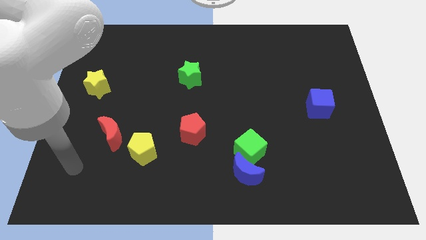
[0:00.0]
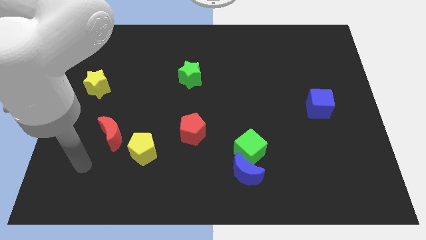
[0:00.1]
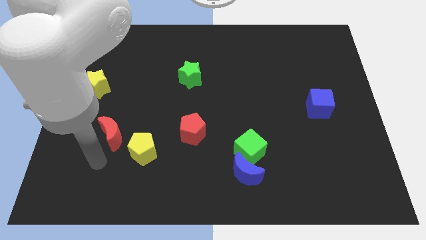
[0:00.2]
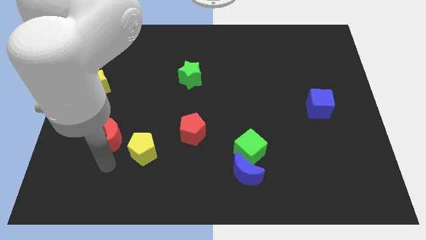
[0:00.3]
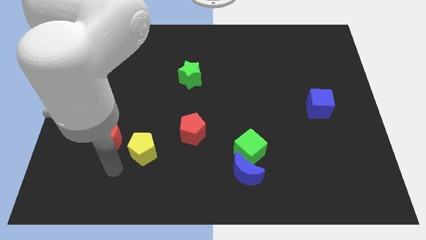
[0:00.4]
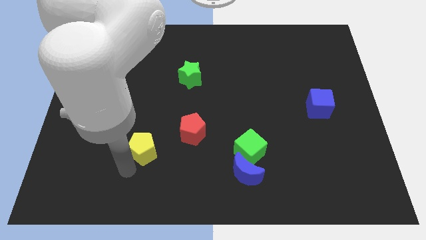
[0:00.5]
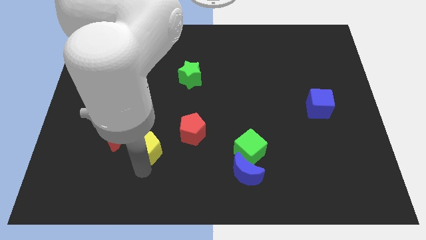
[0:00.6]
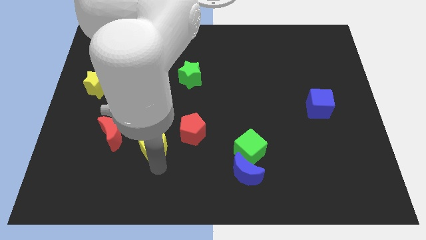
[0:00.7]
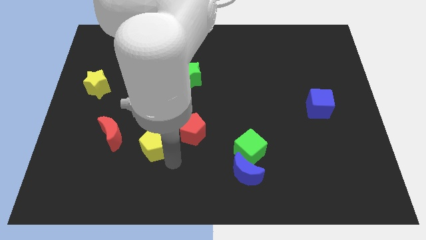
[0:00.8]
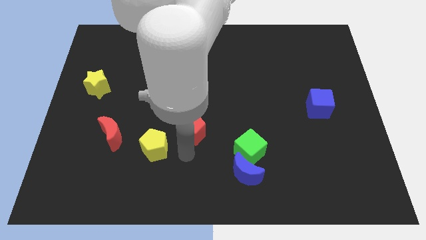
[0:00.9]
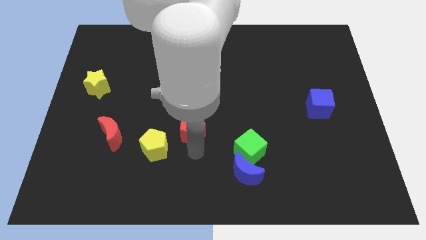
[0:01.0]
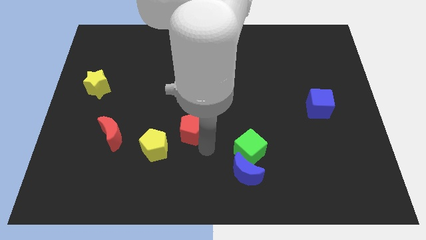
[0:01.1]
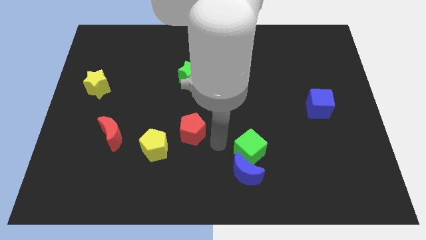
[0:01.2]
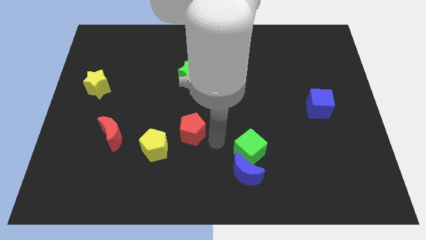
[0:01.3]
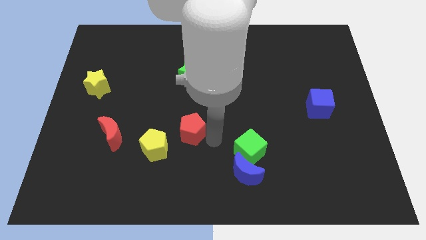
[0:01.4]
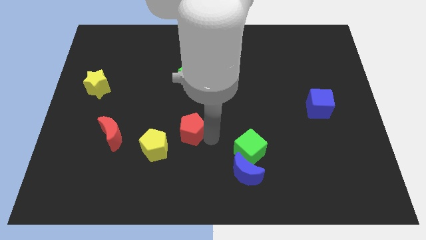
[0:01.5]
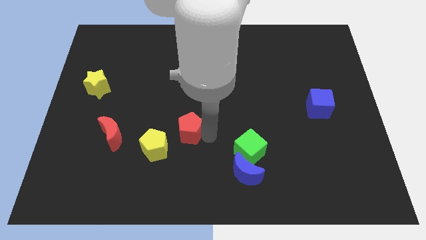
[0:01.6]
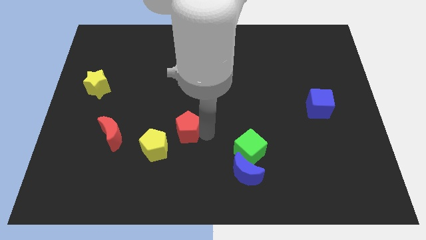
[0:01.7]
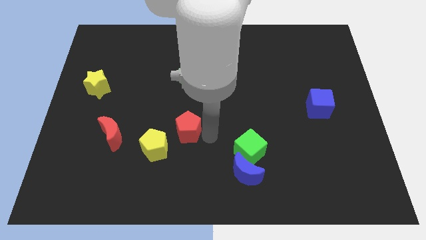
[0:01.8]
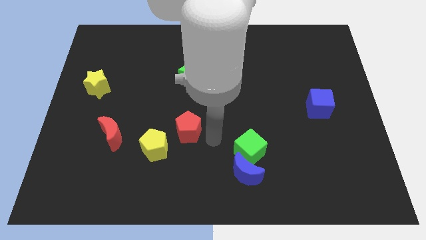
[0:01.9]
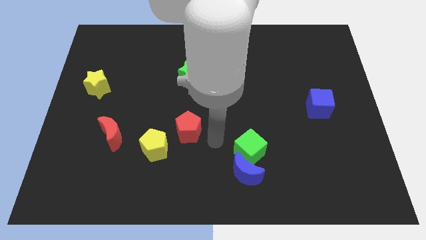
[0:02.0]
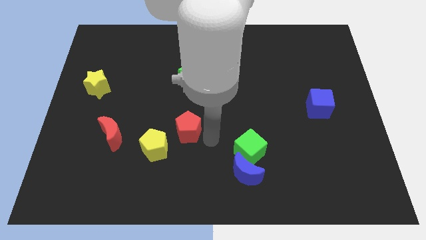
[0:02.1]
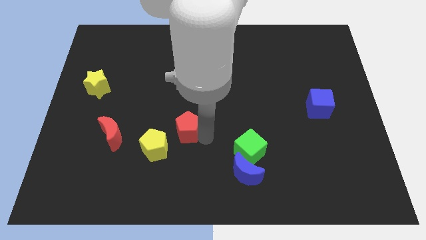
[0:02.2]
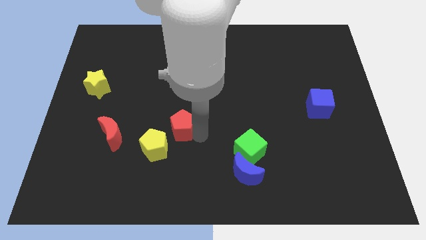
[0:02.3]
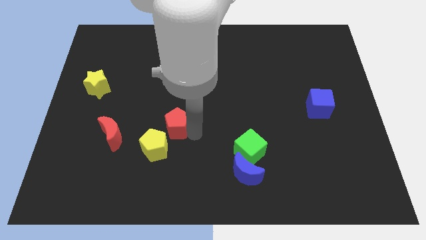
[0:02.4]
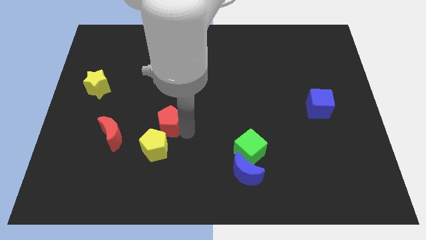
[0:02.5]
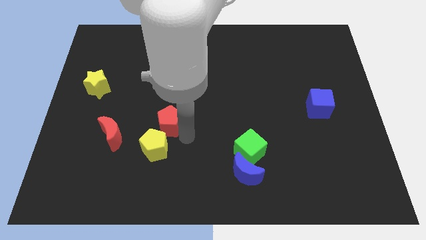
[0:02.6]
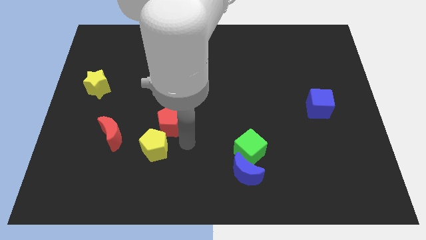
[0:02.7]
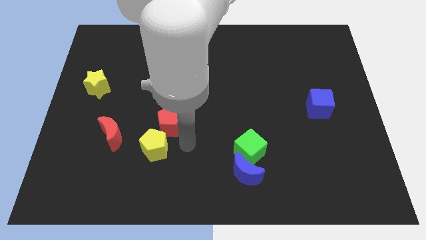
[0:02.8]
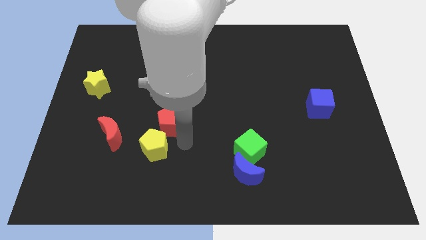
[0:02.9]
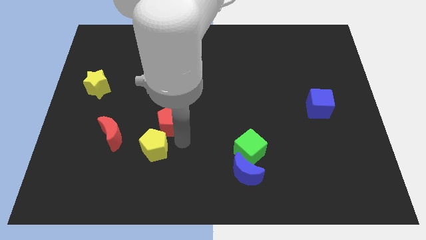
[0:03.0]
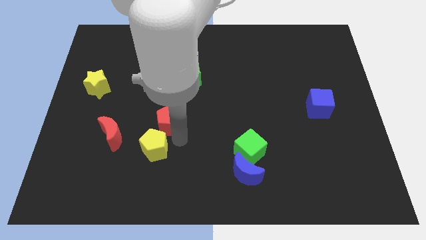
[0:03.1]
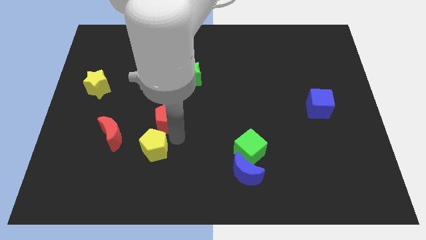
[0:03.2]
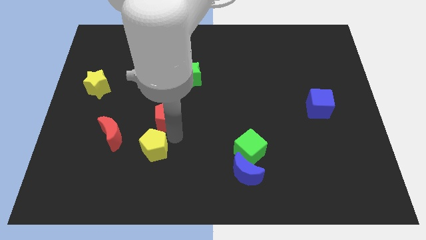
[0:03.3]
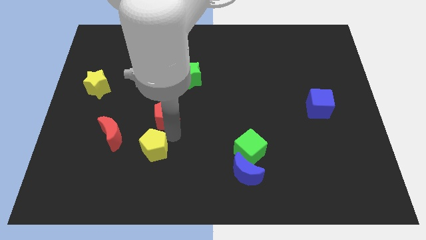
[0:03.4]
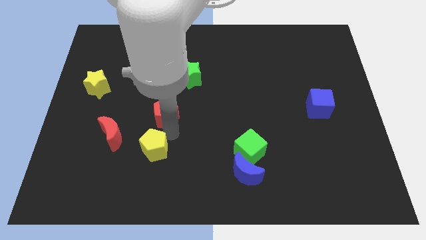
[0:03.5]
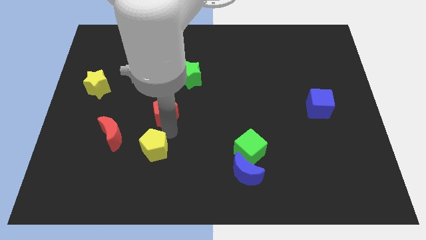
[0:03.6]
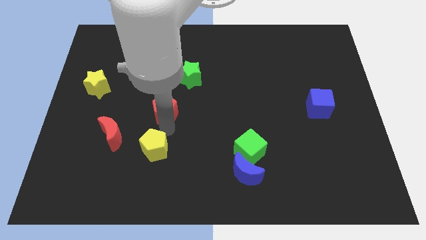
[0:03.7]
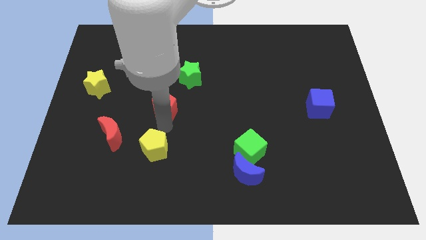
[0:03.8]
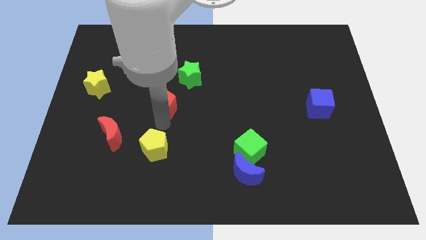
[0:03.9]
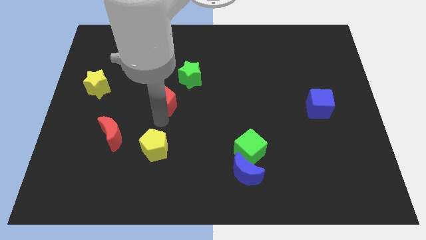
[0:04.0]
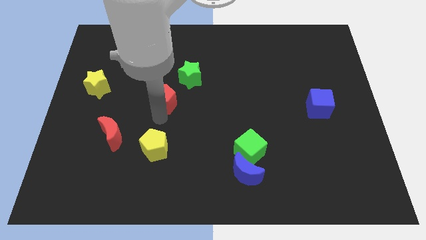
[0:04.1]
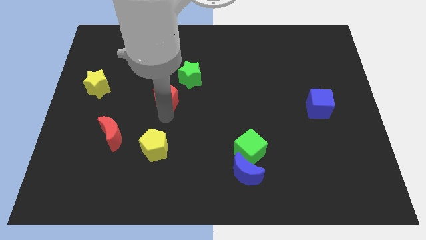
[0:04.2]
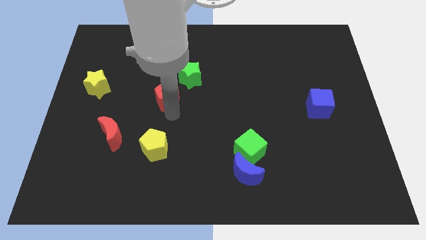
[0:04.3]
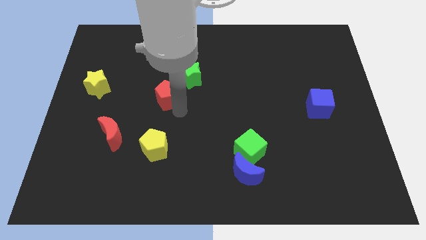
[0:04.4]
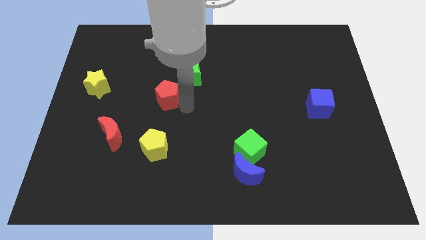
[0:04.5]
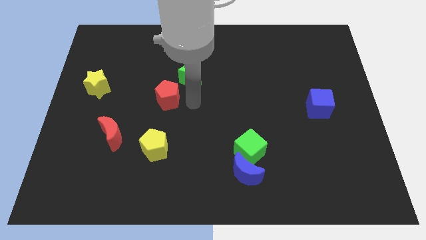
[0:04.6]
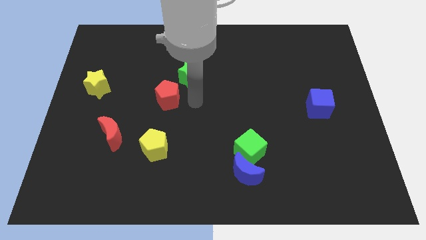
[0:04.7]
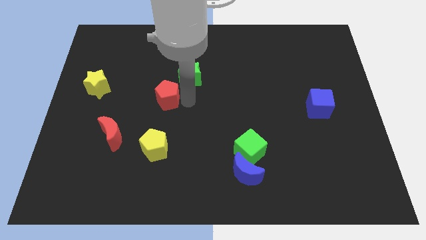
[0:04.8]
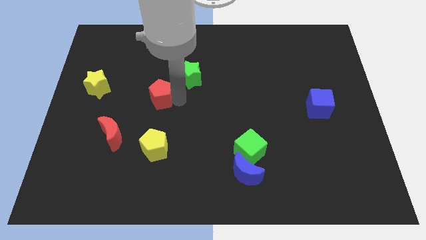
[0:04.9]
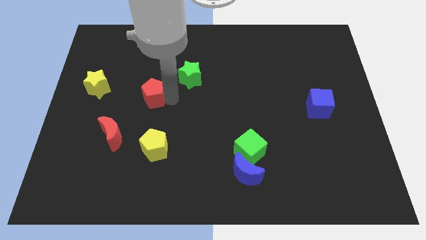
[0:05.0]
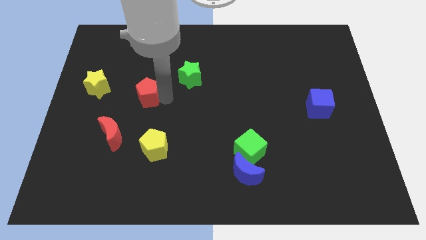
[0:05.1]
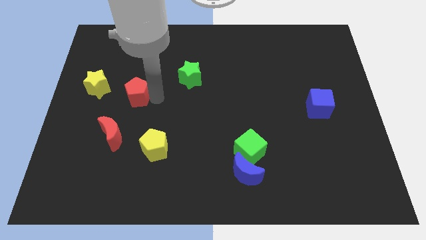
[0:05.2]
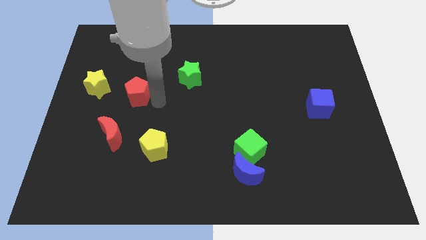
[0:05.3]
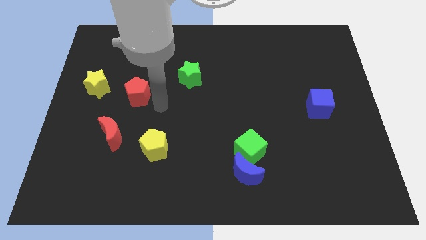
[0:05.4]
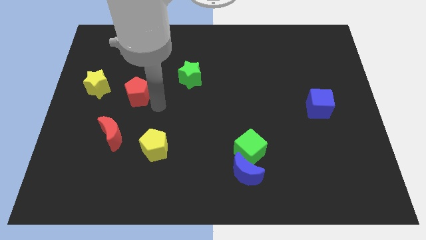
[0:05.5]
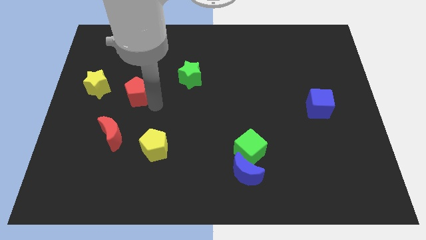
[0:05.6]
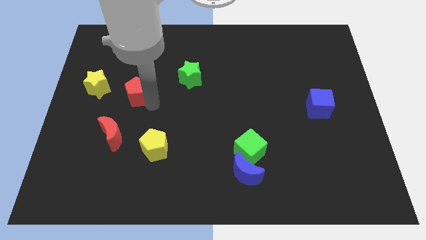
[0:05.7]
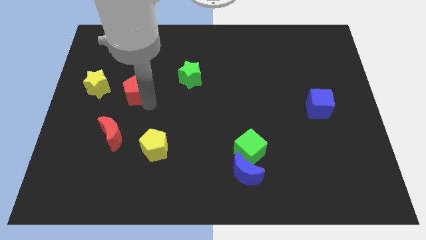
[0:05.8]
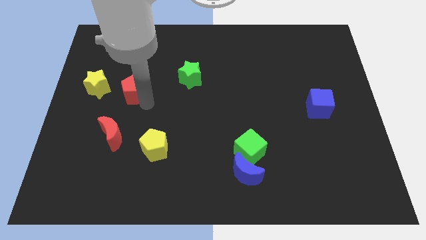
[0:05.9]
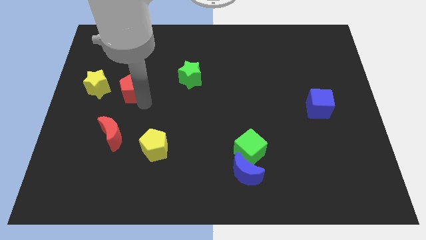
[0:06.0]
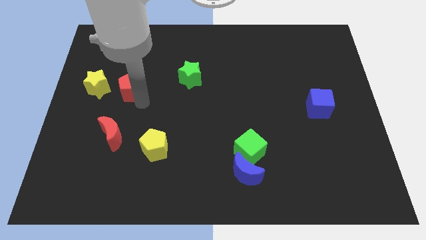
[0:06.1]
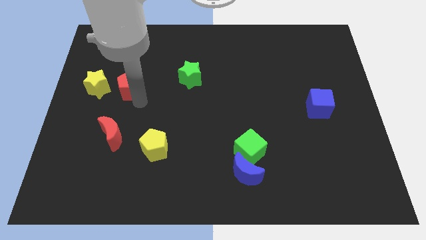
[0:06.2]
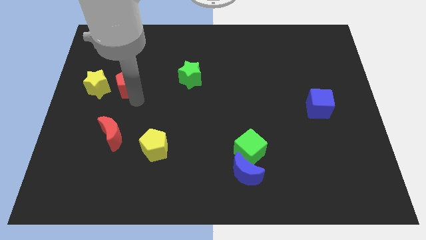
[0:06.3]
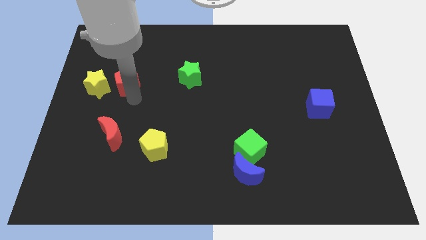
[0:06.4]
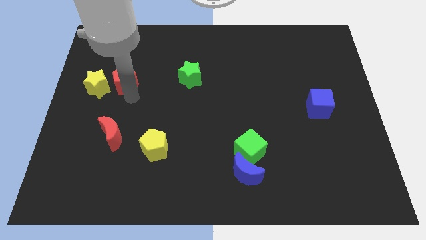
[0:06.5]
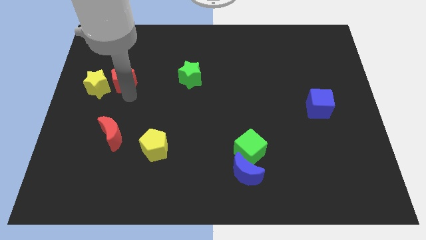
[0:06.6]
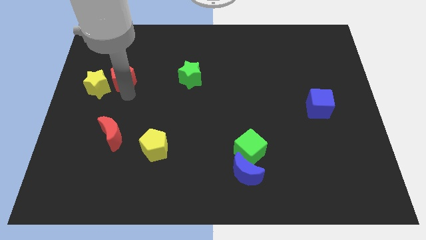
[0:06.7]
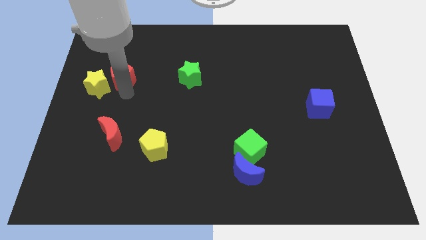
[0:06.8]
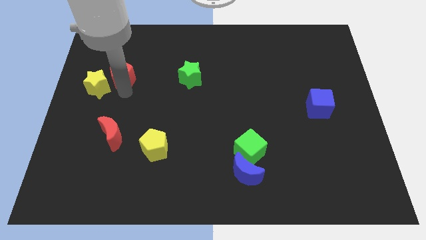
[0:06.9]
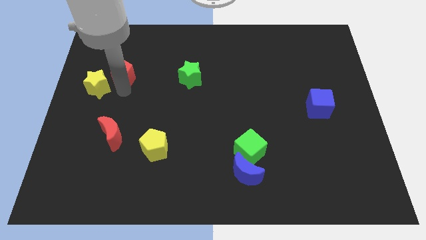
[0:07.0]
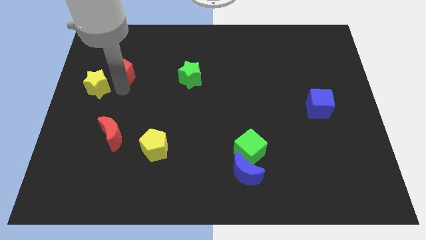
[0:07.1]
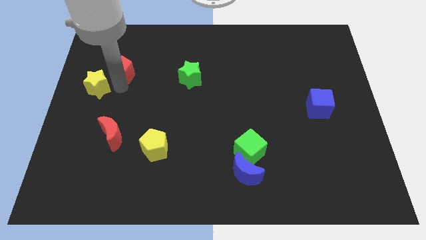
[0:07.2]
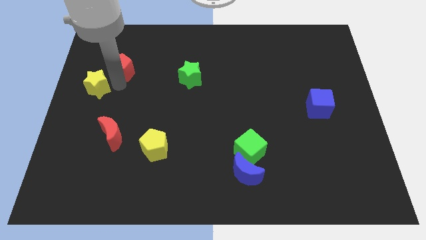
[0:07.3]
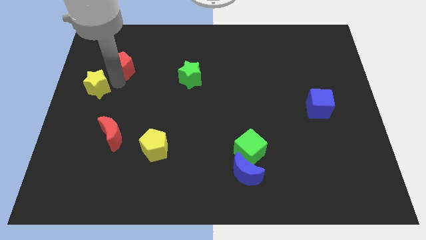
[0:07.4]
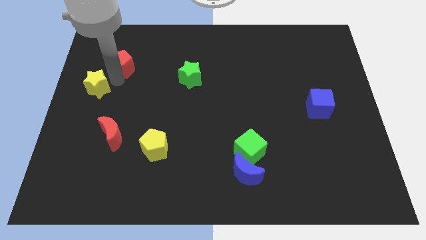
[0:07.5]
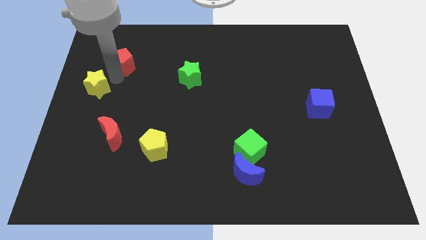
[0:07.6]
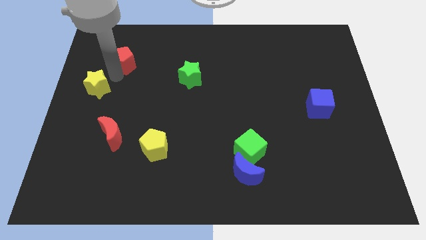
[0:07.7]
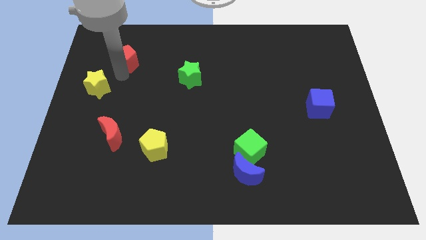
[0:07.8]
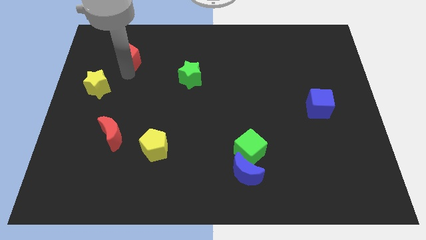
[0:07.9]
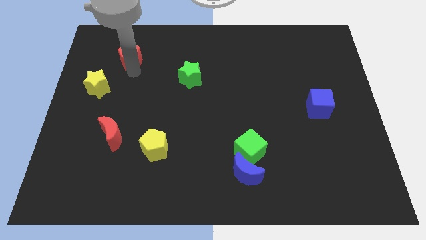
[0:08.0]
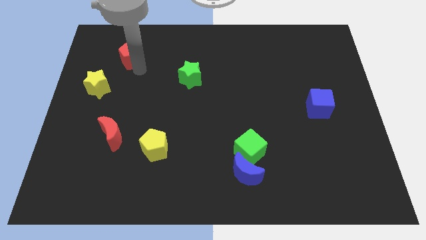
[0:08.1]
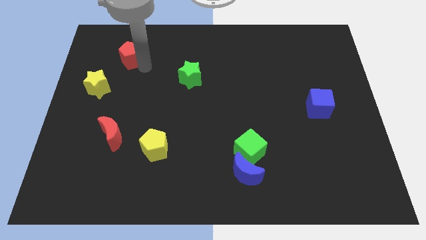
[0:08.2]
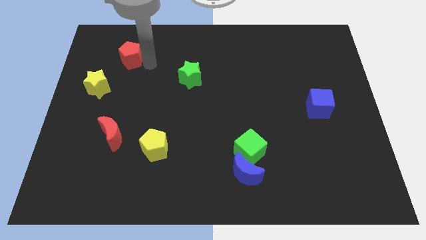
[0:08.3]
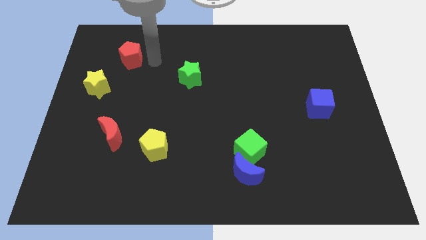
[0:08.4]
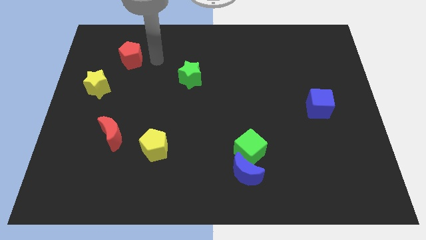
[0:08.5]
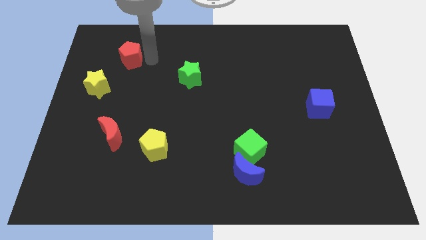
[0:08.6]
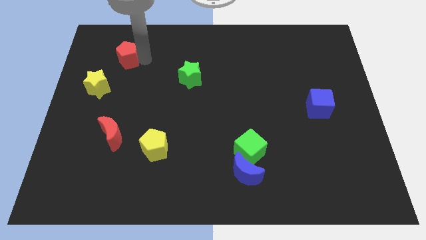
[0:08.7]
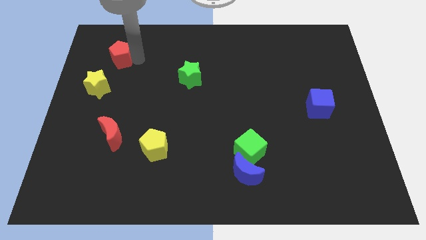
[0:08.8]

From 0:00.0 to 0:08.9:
push the red pentagon above the yellow star
